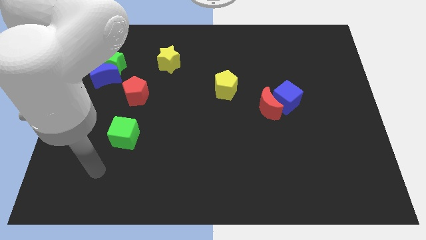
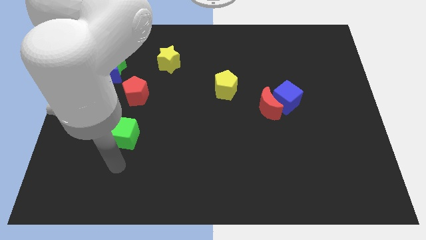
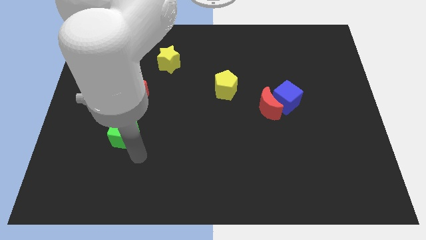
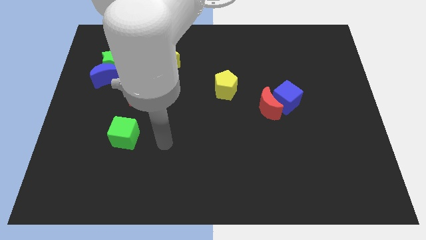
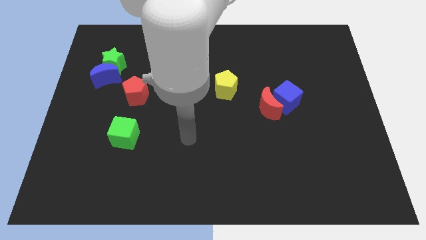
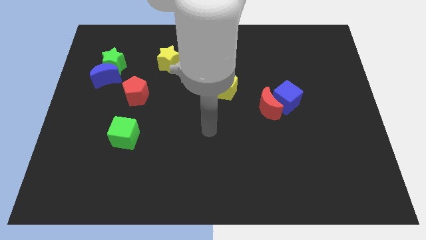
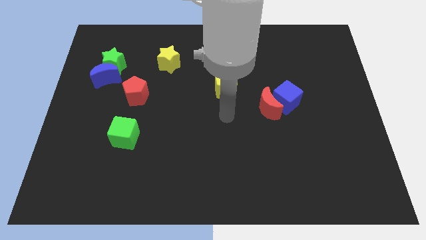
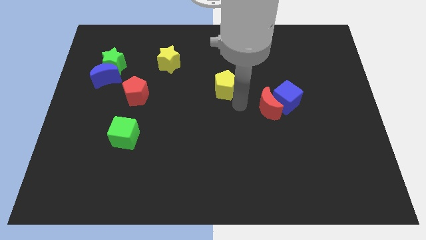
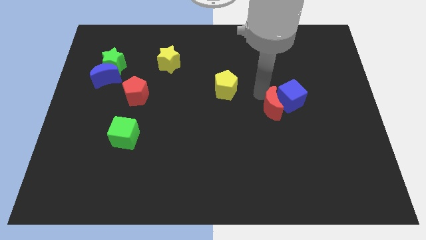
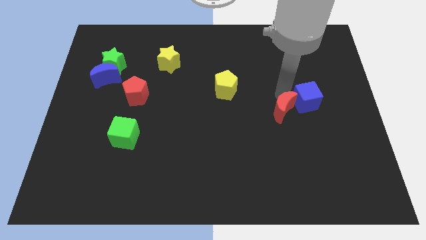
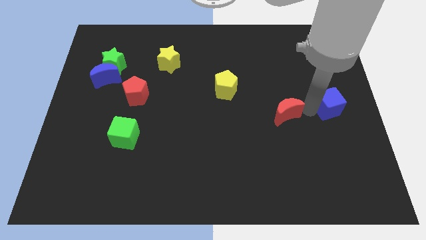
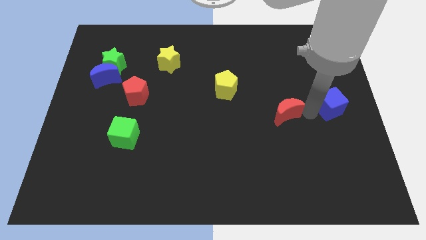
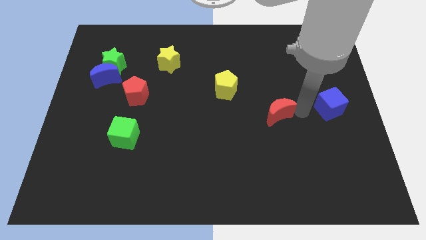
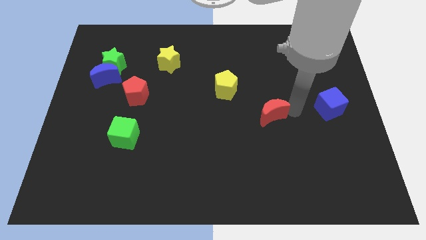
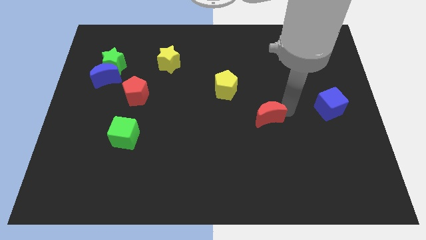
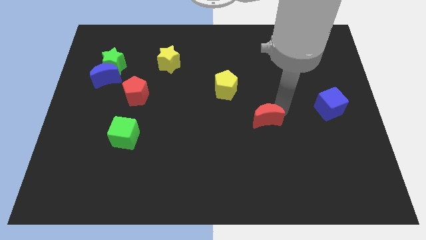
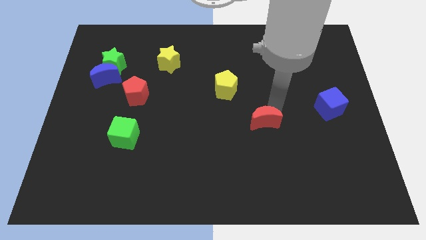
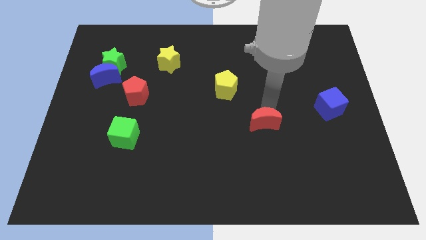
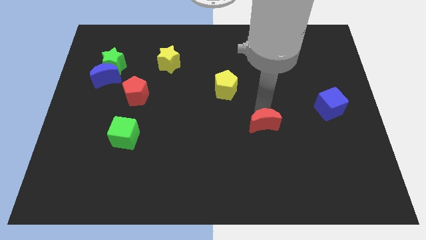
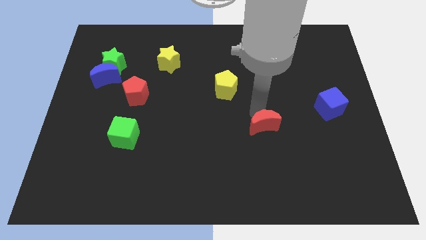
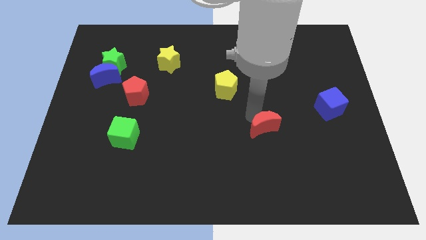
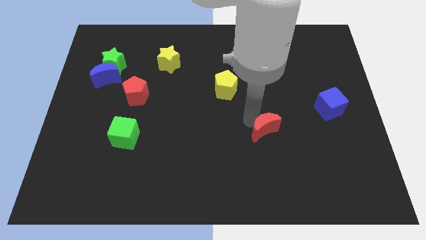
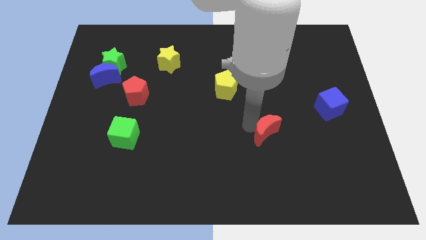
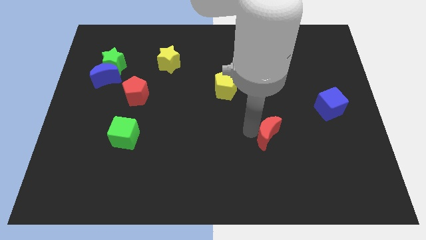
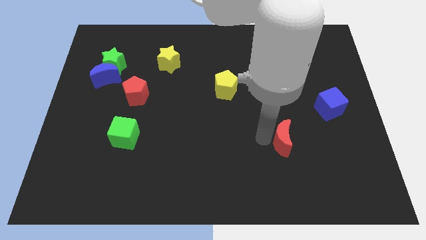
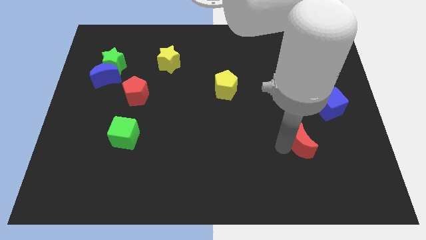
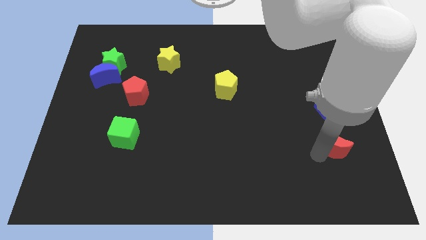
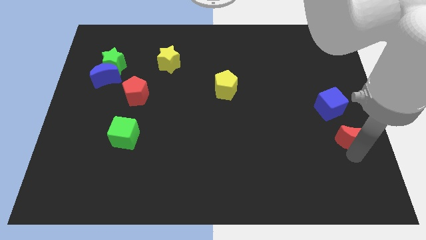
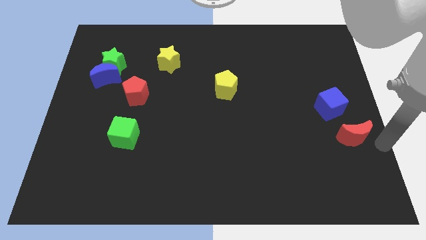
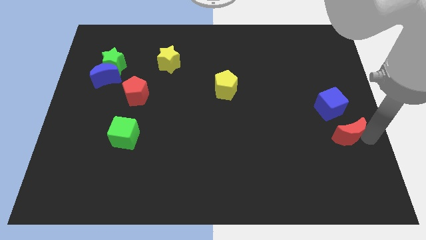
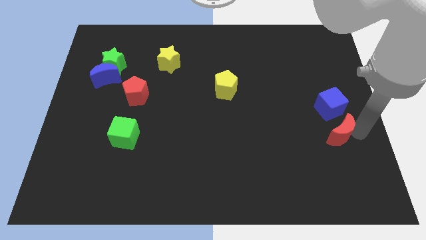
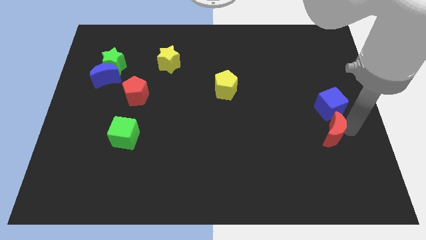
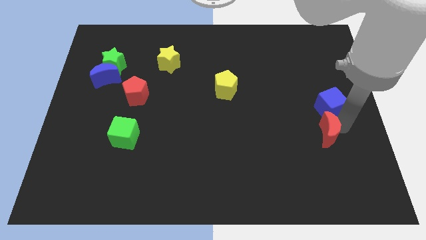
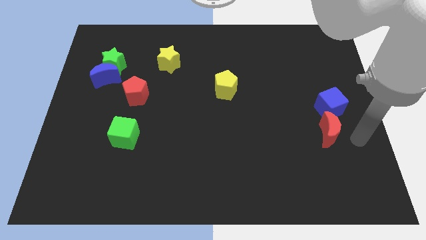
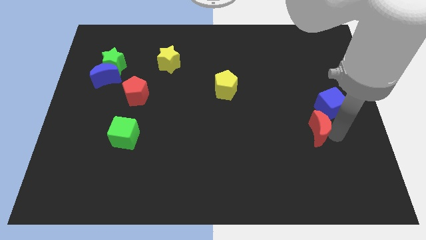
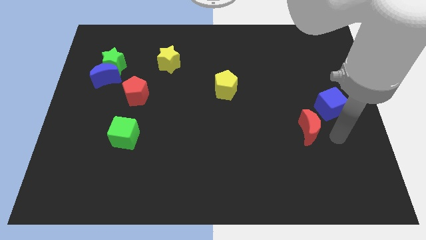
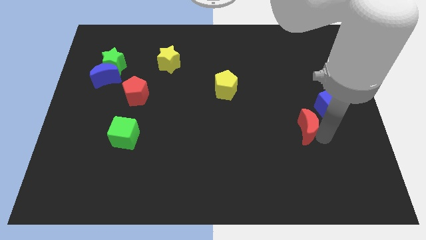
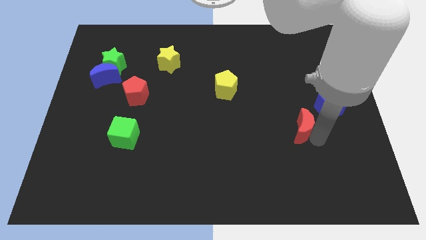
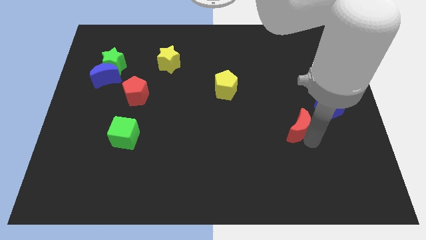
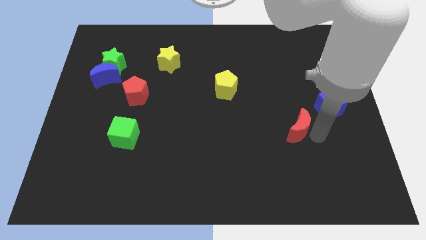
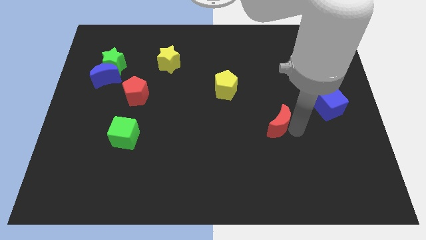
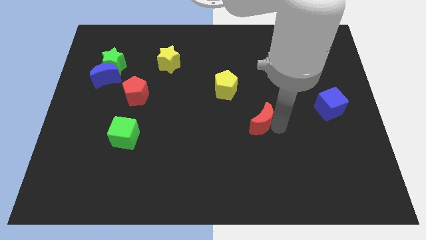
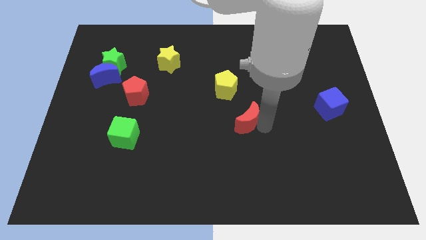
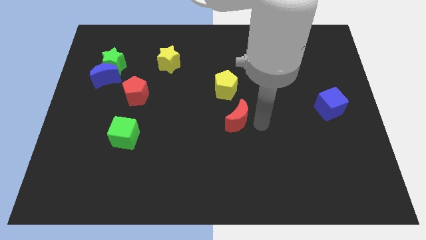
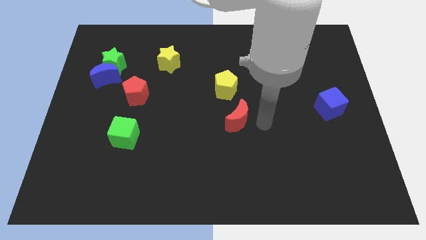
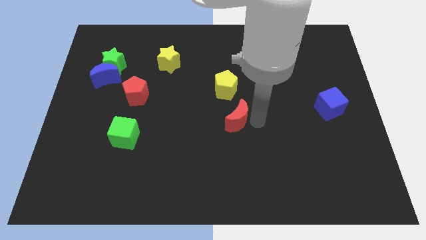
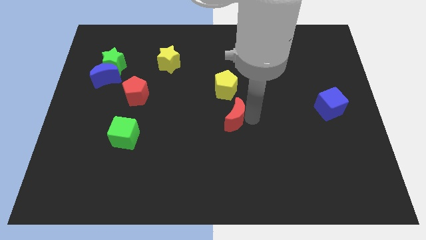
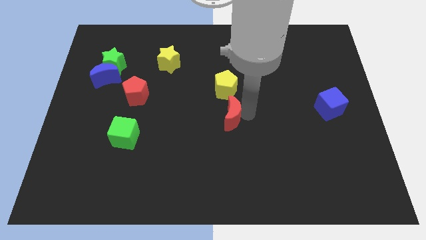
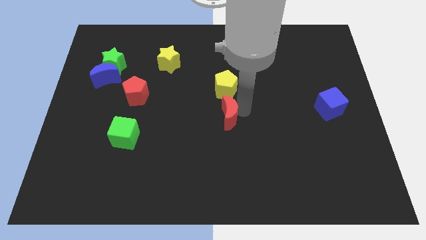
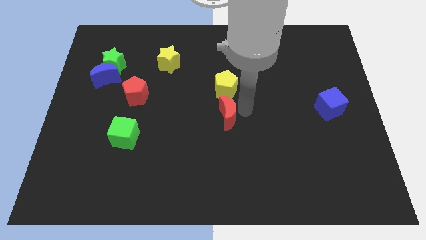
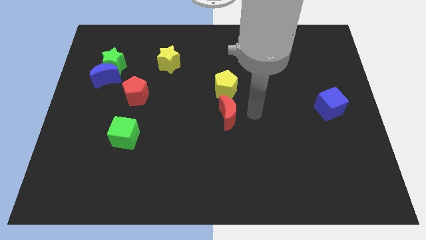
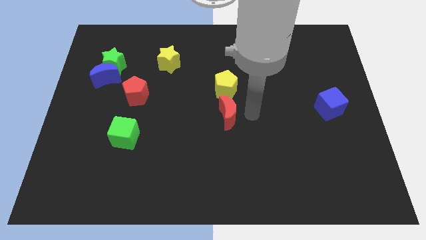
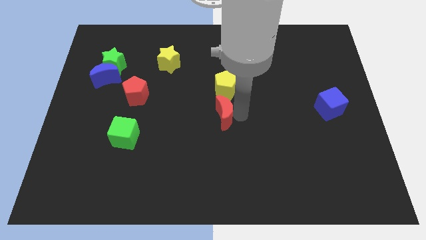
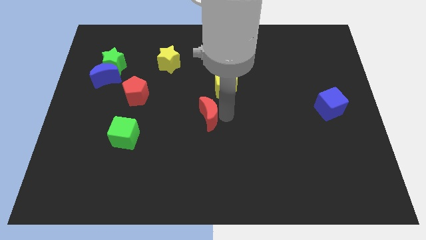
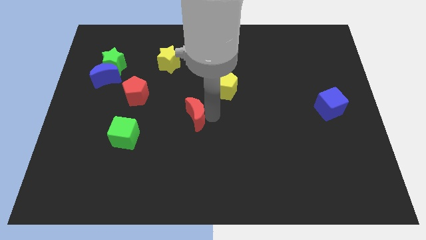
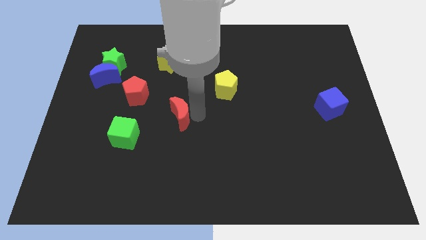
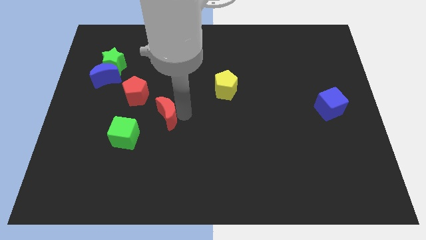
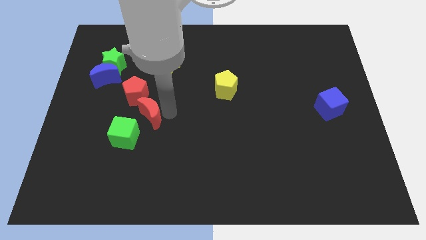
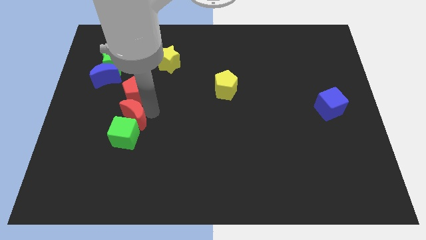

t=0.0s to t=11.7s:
slide the red moon to the green cube
